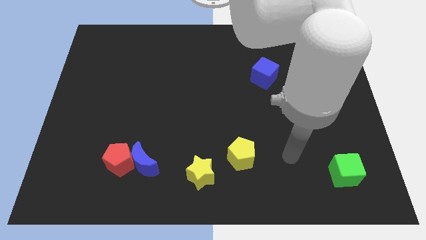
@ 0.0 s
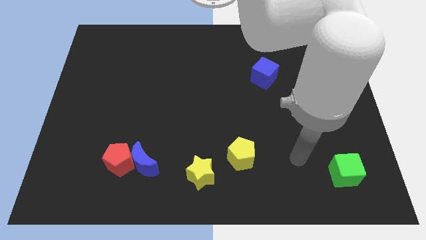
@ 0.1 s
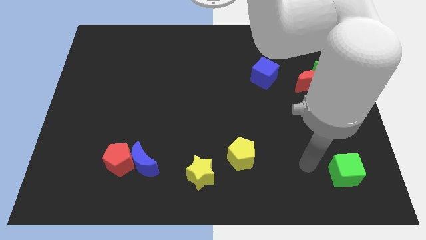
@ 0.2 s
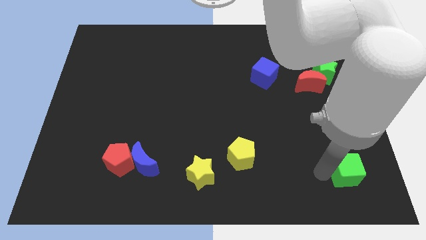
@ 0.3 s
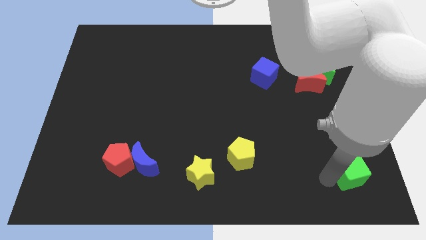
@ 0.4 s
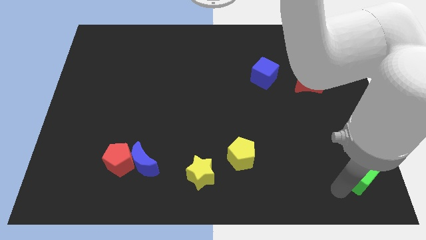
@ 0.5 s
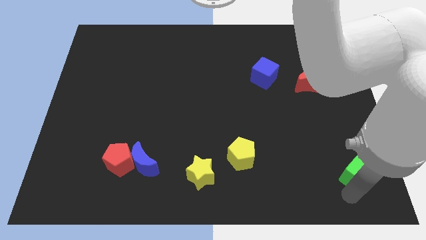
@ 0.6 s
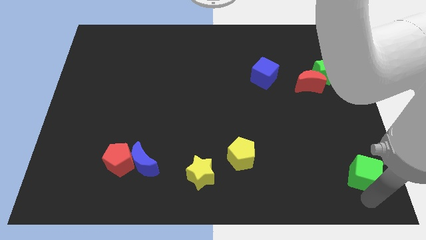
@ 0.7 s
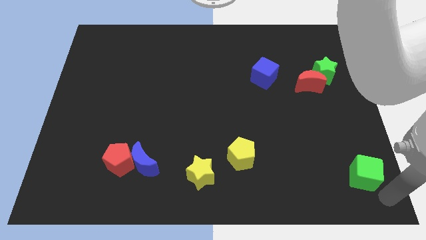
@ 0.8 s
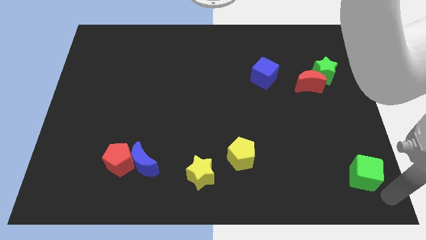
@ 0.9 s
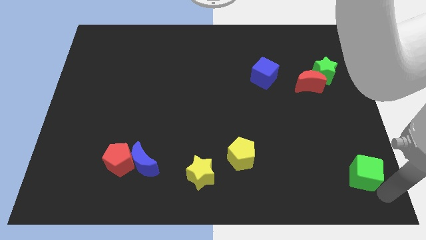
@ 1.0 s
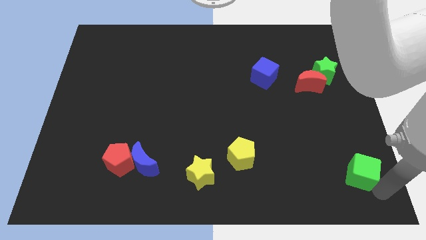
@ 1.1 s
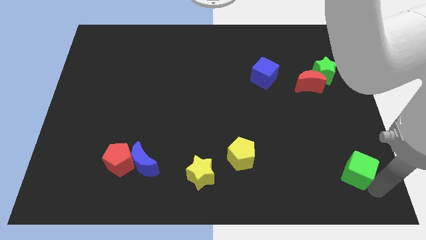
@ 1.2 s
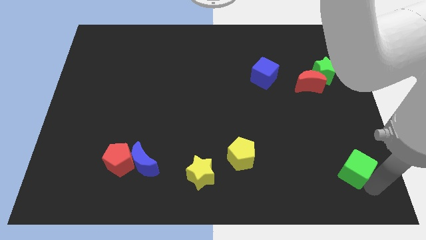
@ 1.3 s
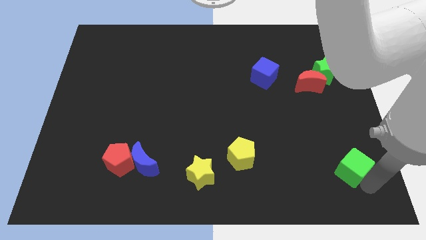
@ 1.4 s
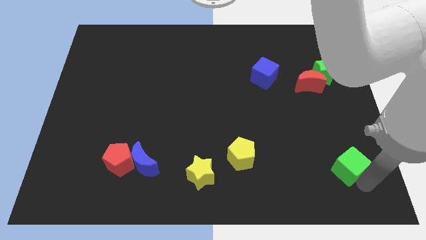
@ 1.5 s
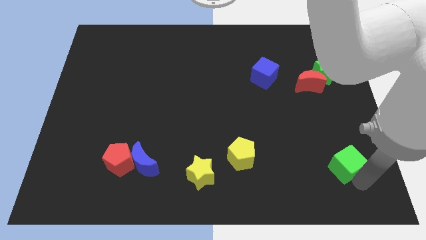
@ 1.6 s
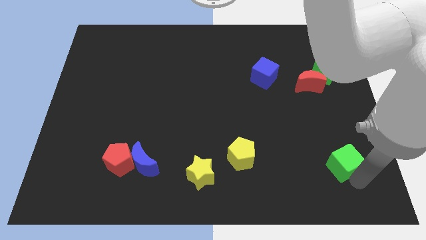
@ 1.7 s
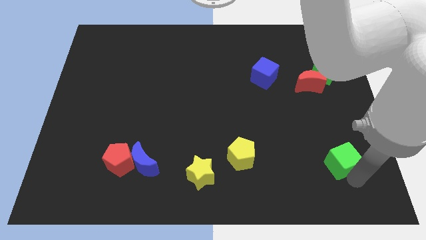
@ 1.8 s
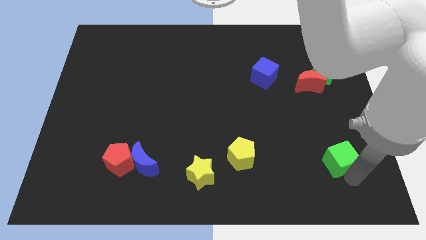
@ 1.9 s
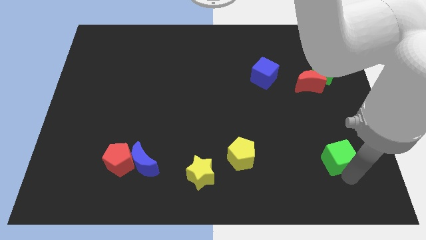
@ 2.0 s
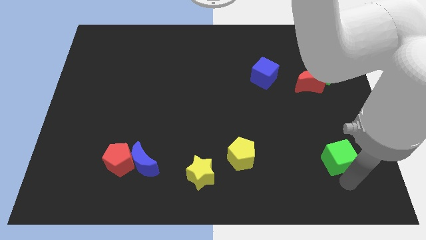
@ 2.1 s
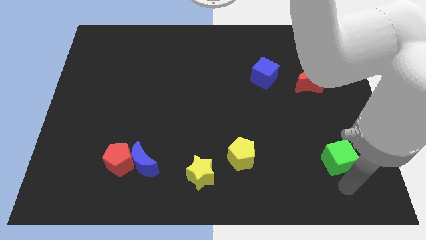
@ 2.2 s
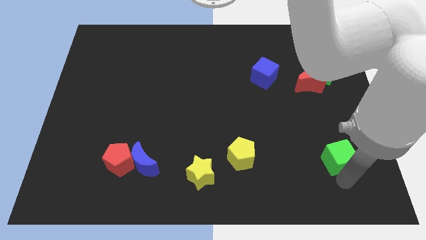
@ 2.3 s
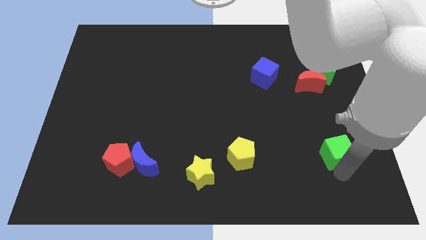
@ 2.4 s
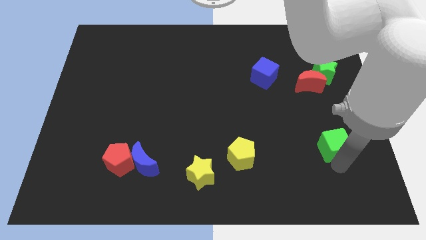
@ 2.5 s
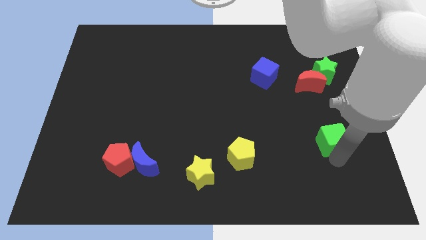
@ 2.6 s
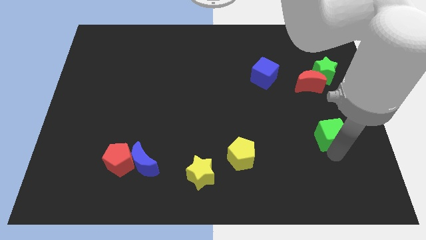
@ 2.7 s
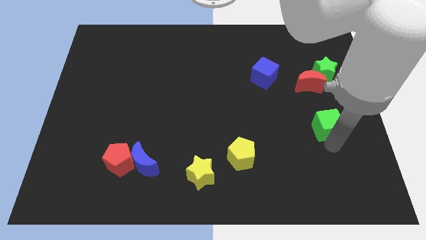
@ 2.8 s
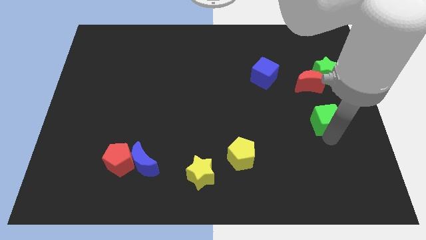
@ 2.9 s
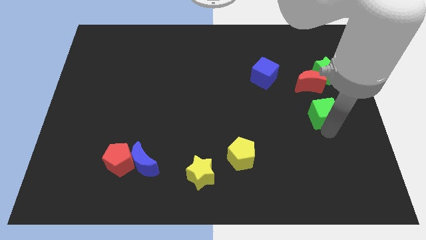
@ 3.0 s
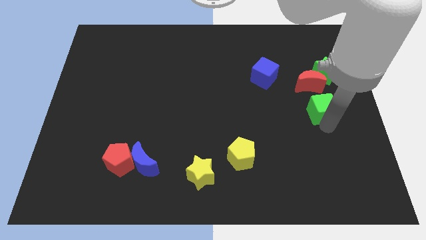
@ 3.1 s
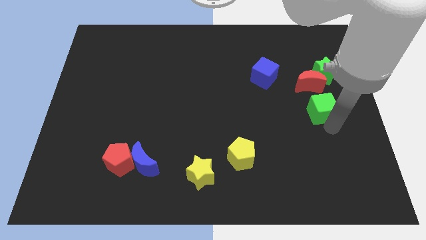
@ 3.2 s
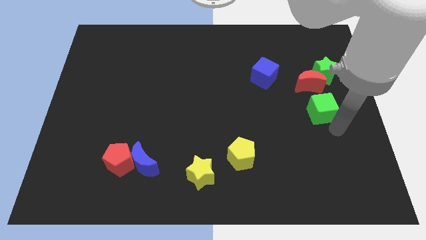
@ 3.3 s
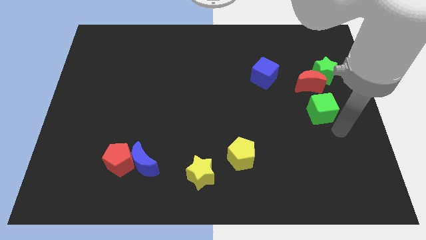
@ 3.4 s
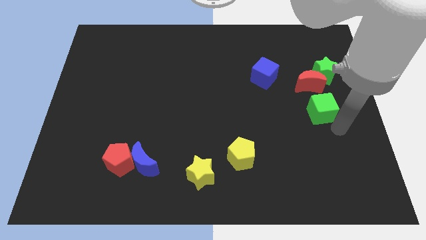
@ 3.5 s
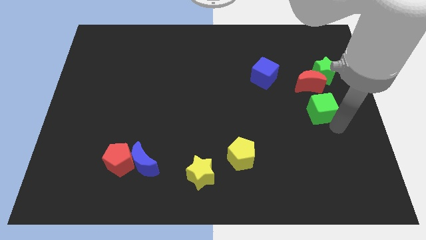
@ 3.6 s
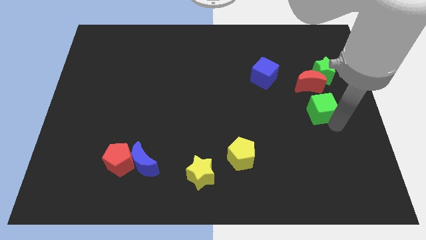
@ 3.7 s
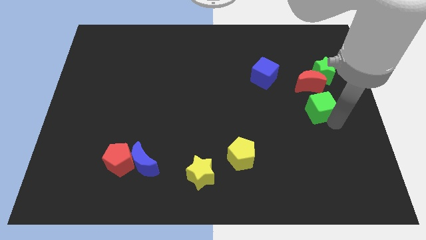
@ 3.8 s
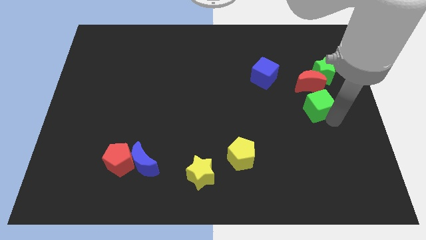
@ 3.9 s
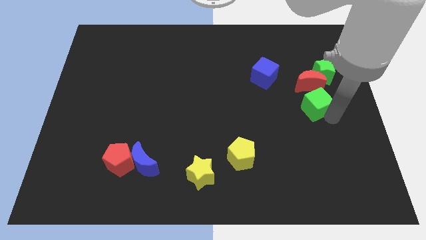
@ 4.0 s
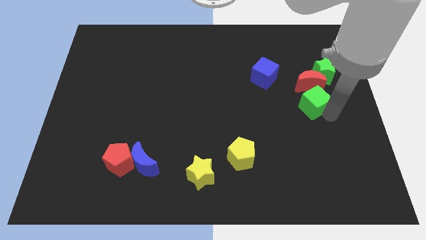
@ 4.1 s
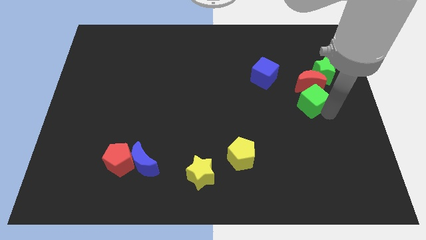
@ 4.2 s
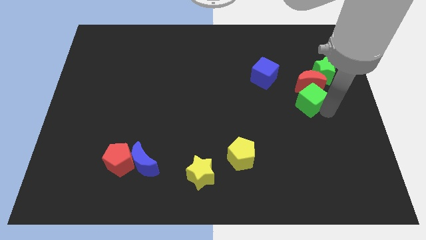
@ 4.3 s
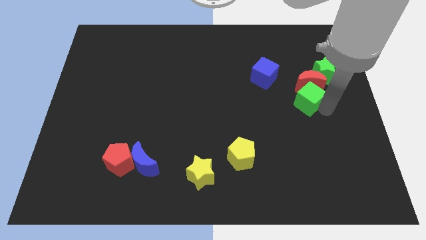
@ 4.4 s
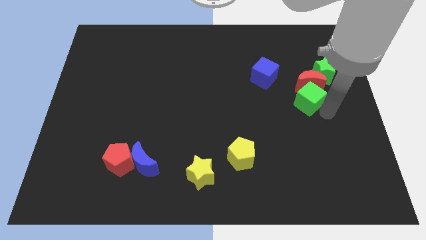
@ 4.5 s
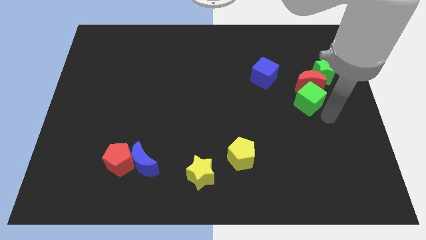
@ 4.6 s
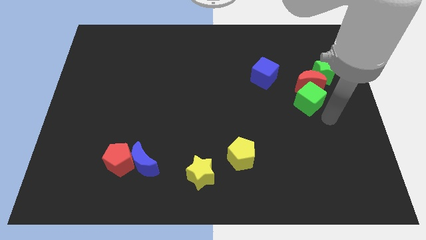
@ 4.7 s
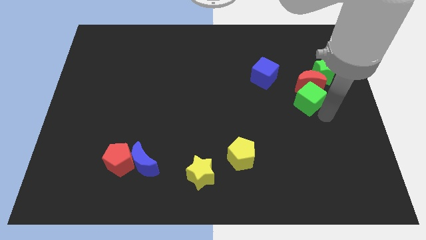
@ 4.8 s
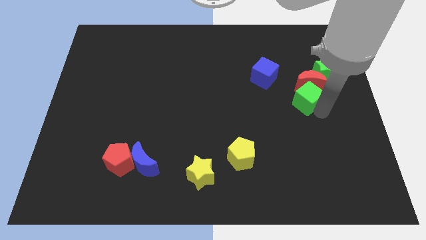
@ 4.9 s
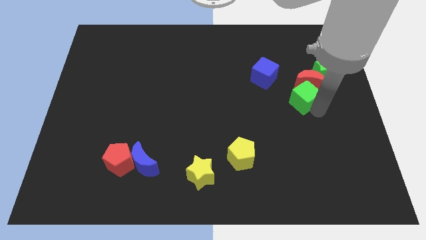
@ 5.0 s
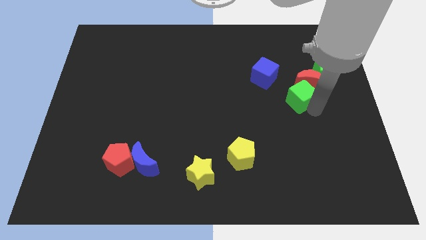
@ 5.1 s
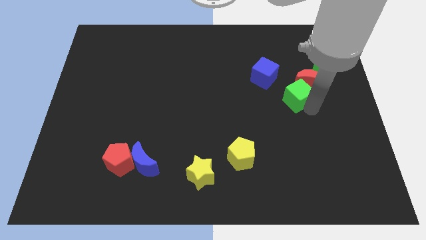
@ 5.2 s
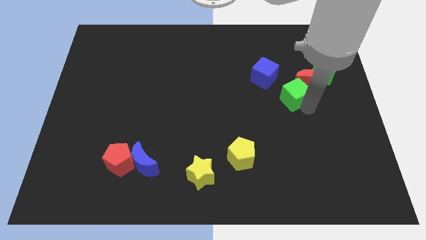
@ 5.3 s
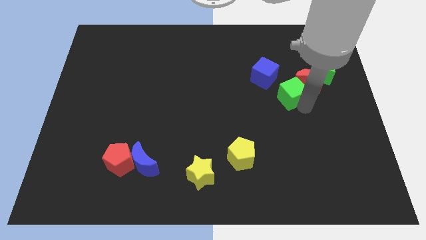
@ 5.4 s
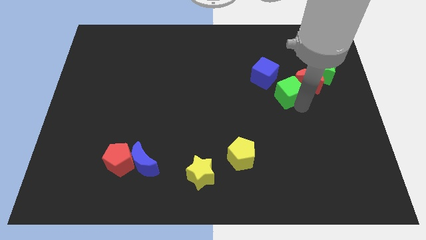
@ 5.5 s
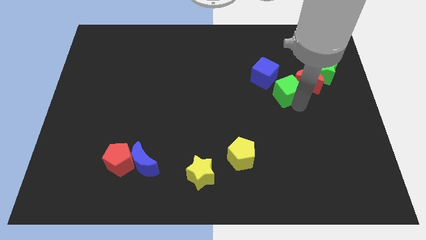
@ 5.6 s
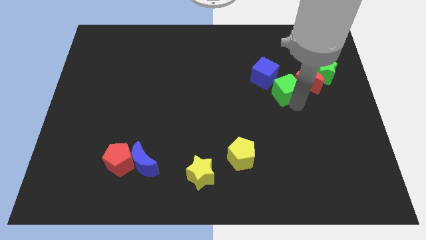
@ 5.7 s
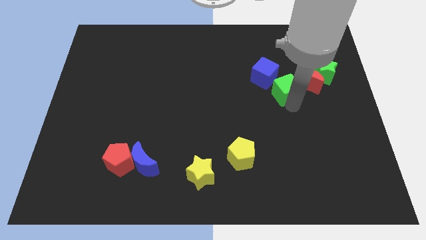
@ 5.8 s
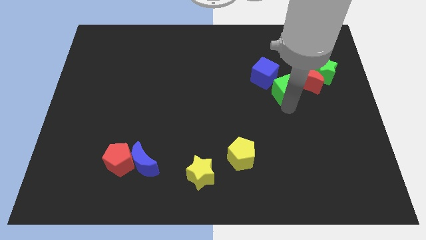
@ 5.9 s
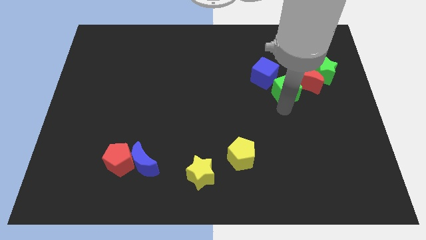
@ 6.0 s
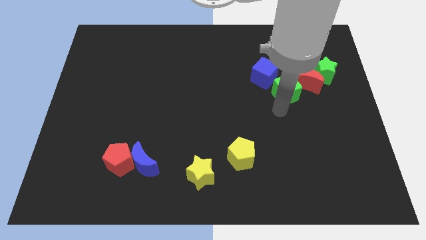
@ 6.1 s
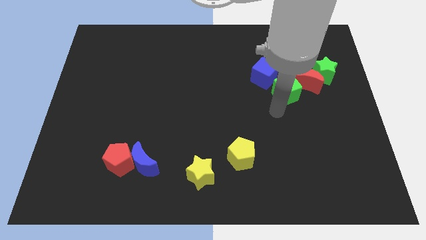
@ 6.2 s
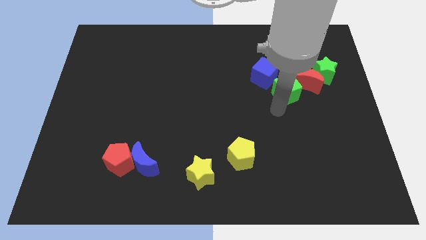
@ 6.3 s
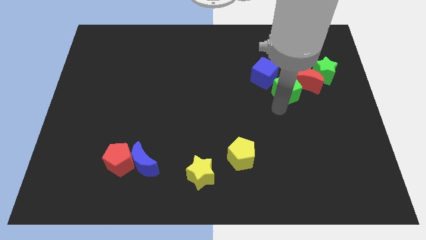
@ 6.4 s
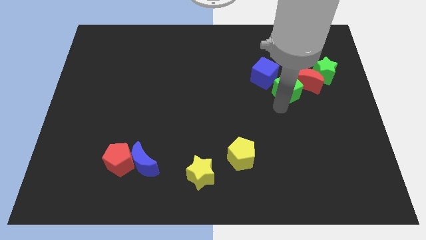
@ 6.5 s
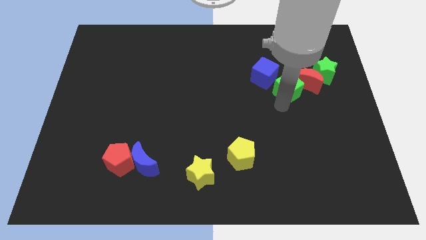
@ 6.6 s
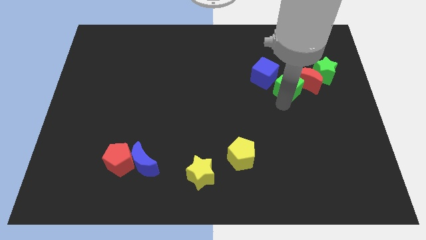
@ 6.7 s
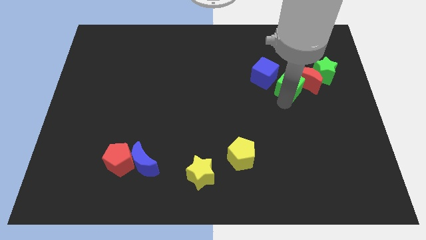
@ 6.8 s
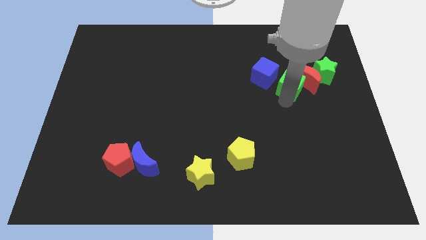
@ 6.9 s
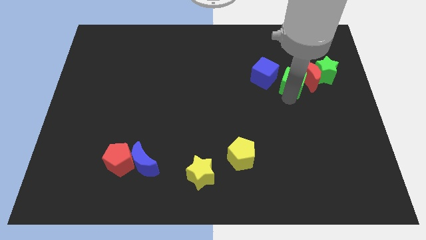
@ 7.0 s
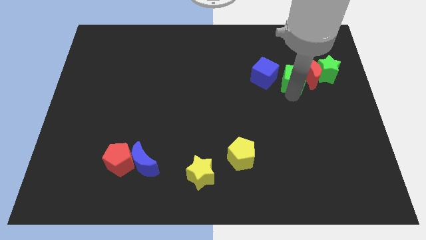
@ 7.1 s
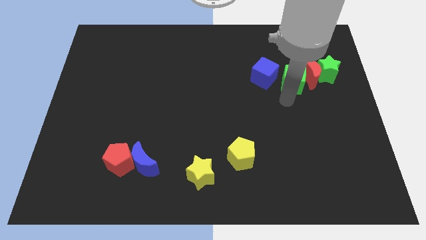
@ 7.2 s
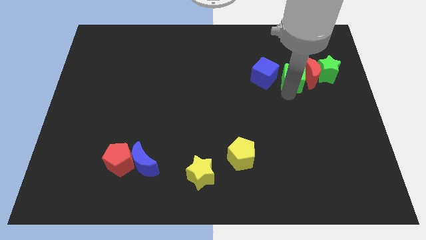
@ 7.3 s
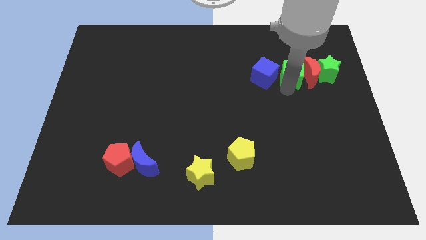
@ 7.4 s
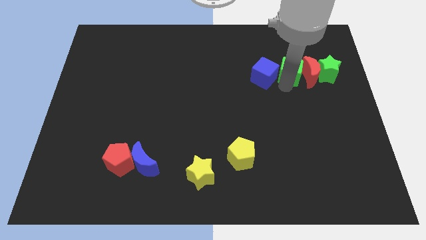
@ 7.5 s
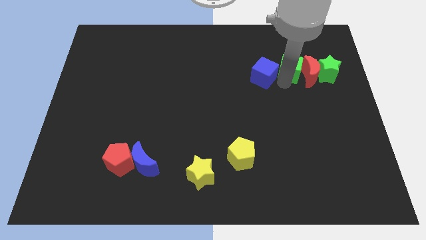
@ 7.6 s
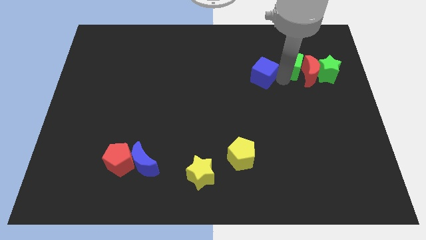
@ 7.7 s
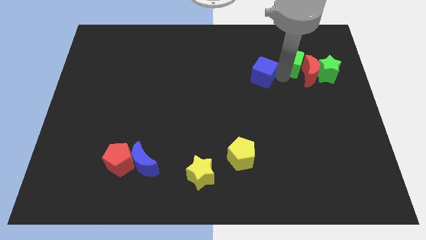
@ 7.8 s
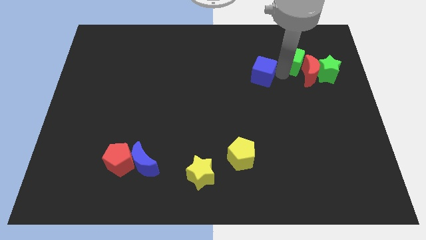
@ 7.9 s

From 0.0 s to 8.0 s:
put the green cube above the red moon
